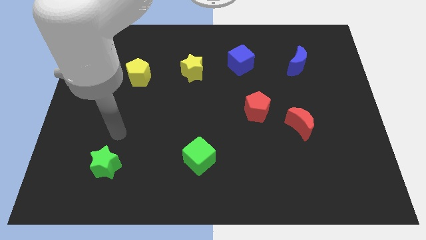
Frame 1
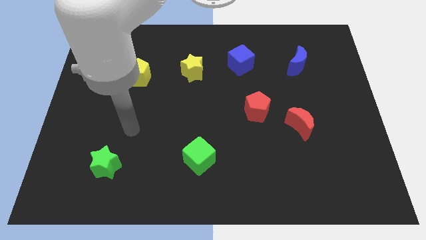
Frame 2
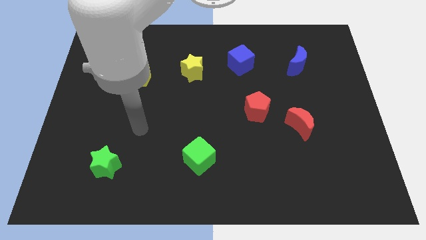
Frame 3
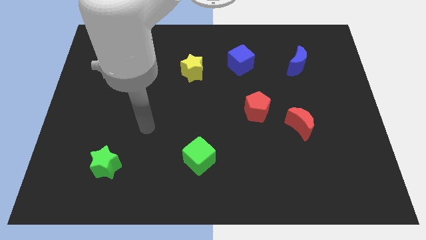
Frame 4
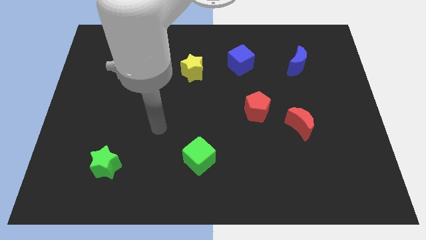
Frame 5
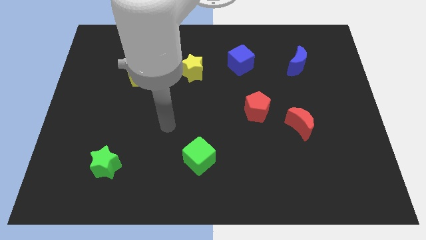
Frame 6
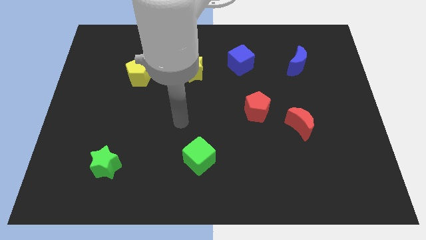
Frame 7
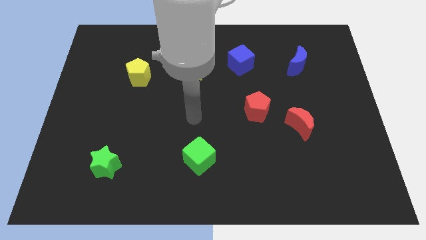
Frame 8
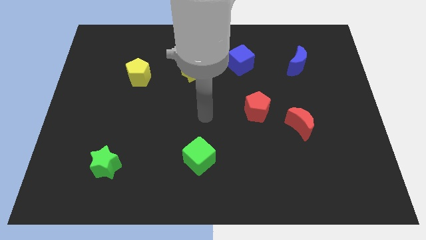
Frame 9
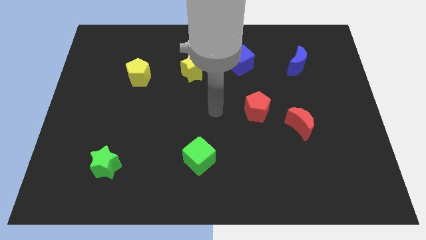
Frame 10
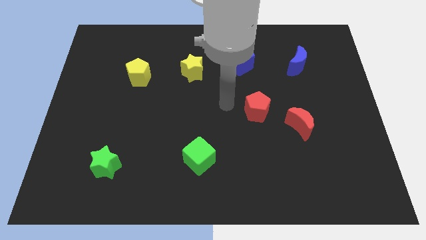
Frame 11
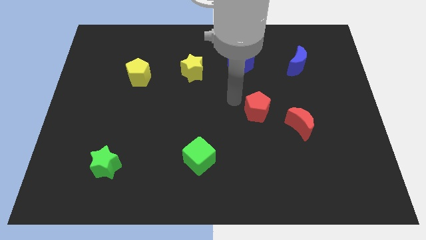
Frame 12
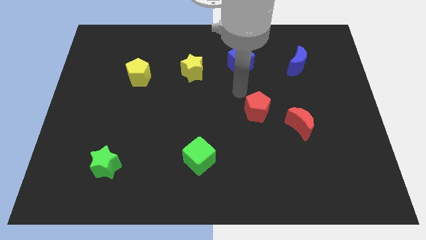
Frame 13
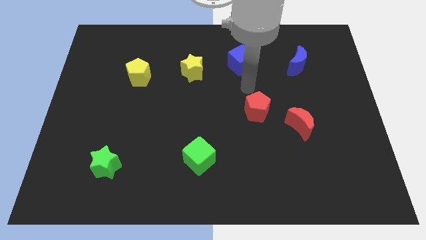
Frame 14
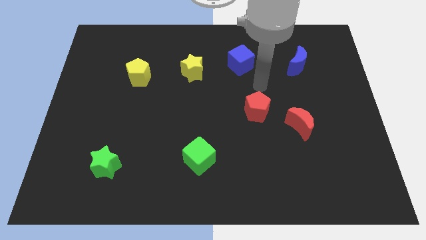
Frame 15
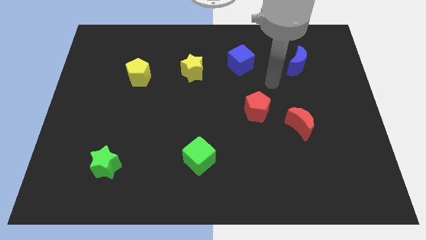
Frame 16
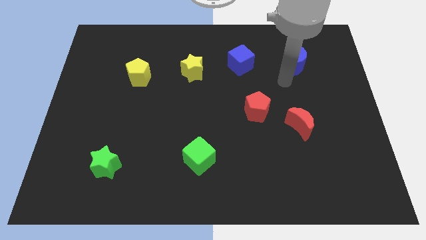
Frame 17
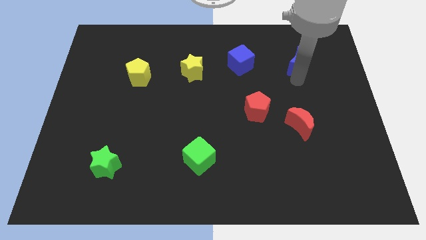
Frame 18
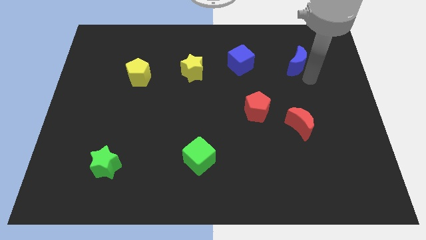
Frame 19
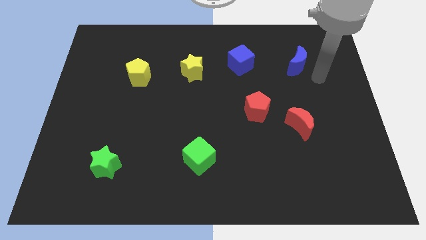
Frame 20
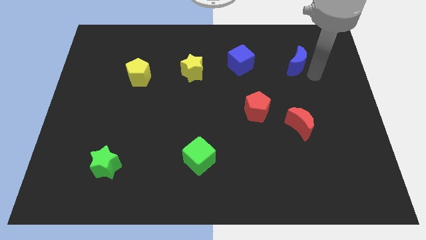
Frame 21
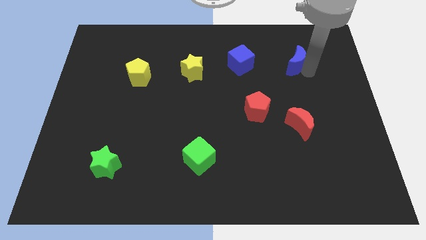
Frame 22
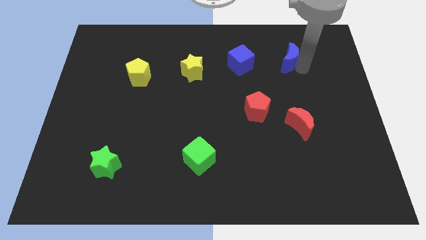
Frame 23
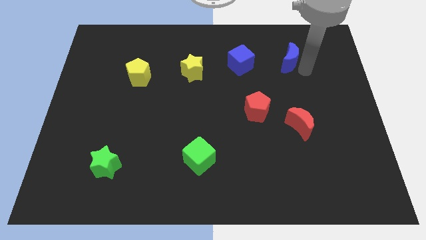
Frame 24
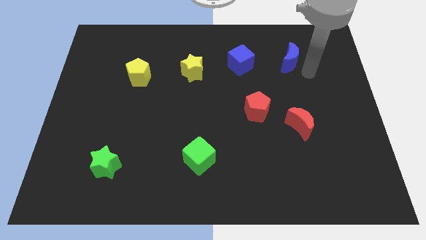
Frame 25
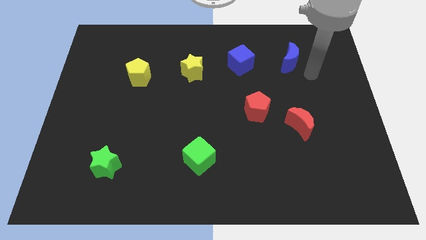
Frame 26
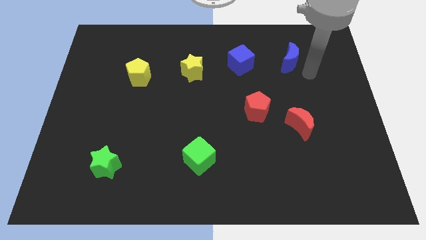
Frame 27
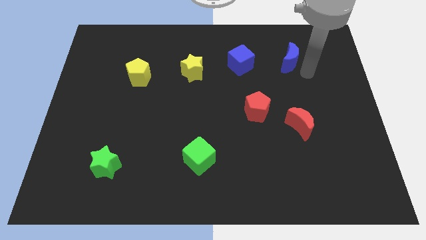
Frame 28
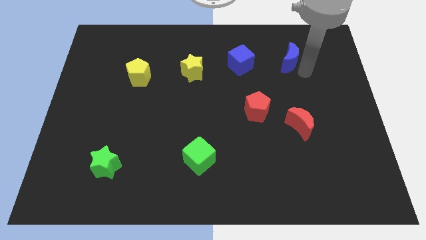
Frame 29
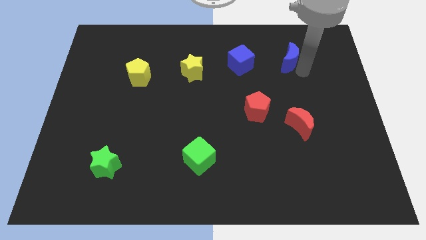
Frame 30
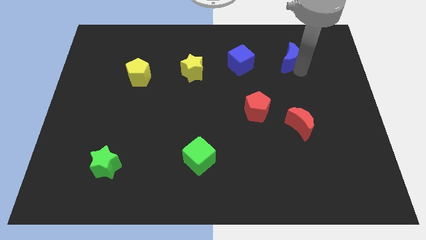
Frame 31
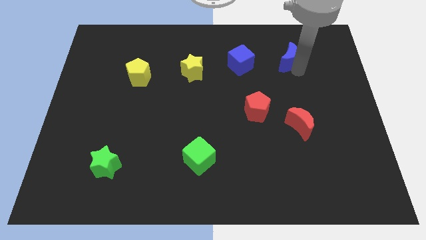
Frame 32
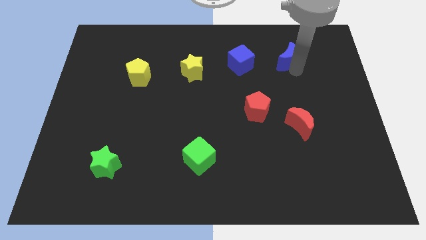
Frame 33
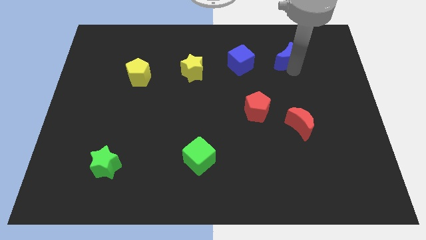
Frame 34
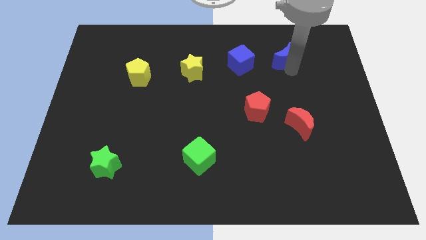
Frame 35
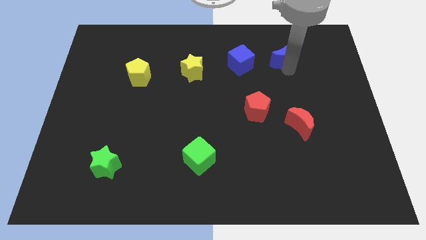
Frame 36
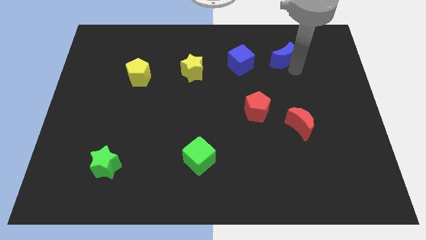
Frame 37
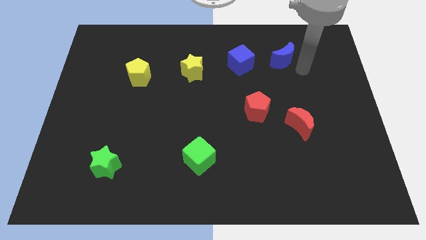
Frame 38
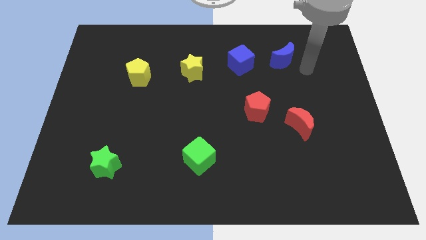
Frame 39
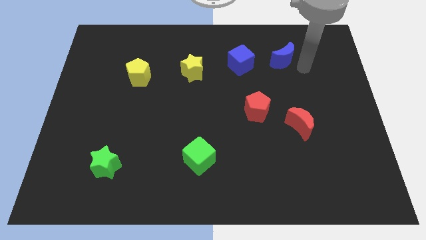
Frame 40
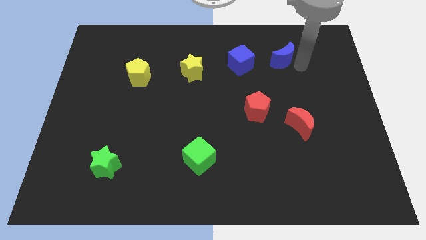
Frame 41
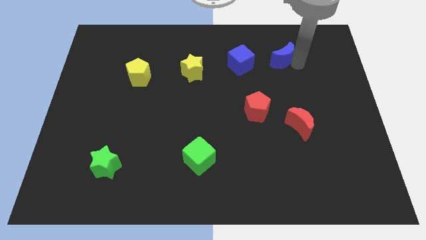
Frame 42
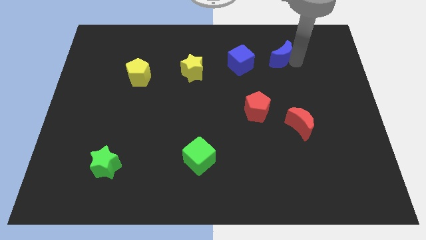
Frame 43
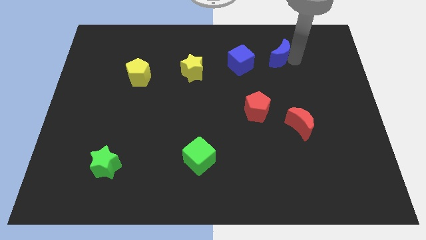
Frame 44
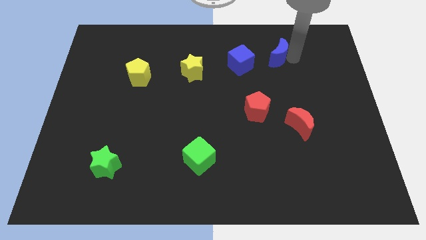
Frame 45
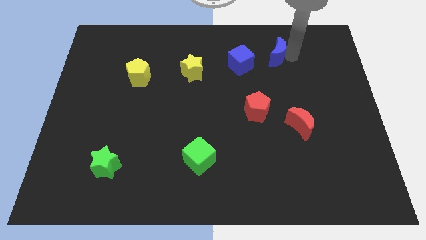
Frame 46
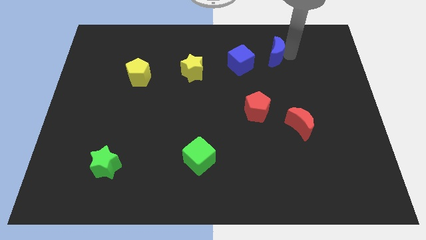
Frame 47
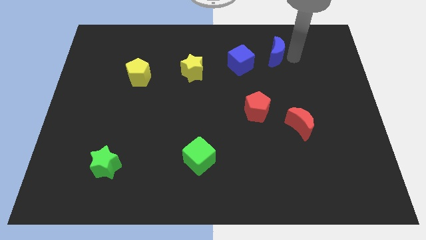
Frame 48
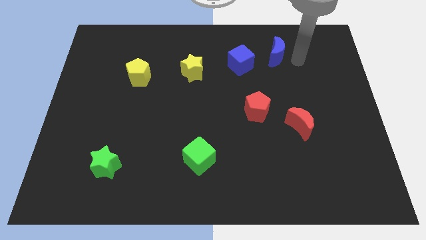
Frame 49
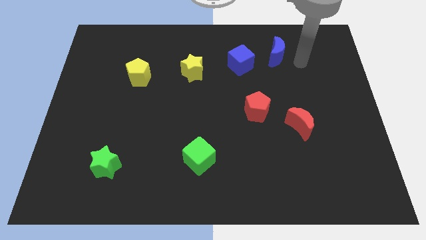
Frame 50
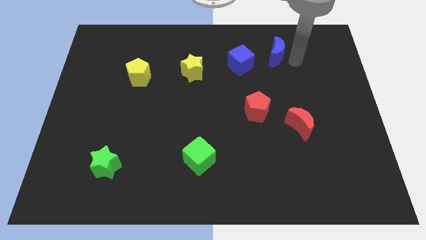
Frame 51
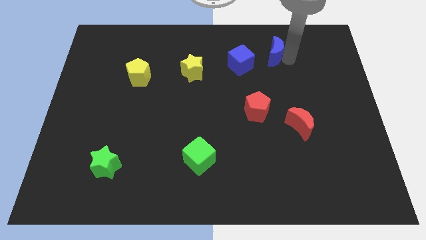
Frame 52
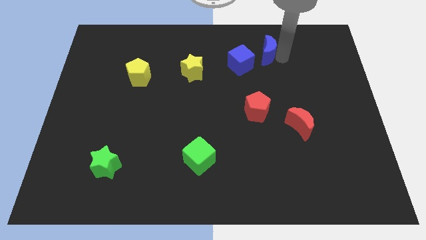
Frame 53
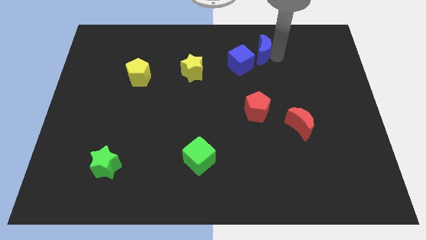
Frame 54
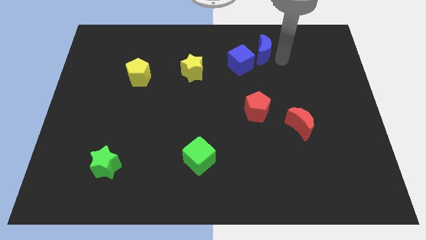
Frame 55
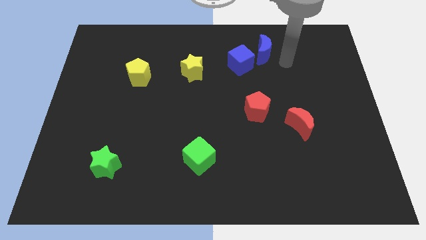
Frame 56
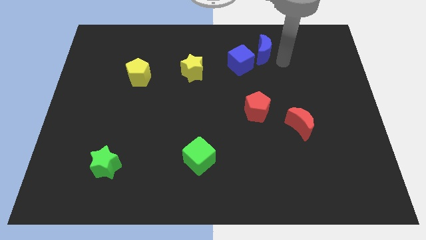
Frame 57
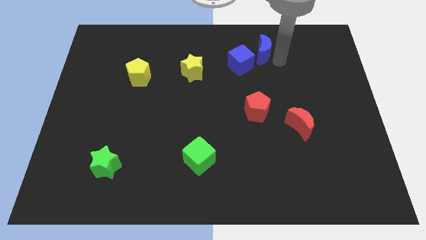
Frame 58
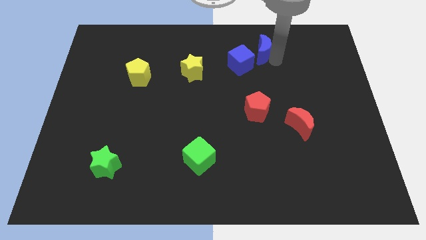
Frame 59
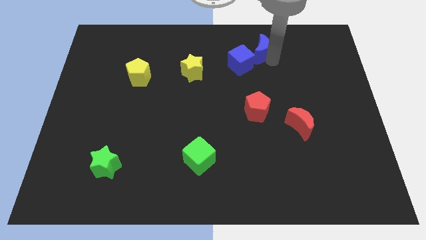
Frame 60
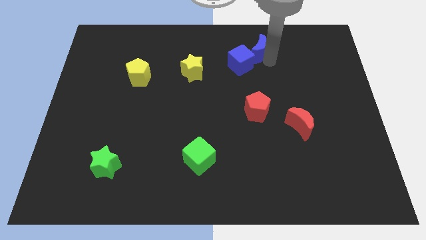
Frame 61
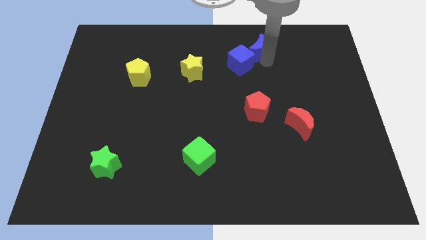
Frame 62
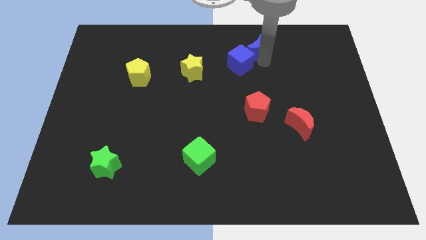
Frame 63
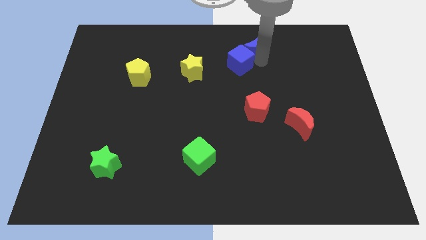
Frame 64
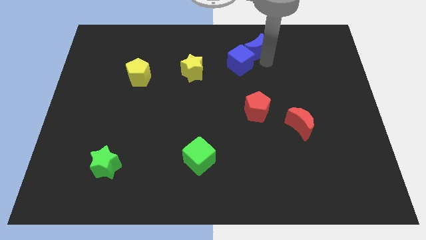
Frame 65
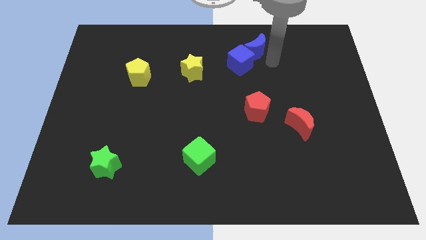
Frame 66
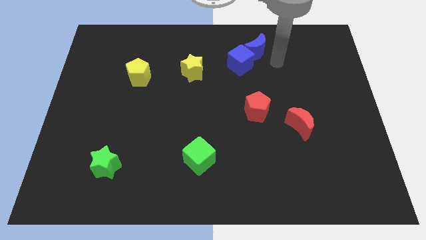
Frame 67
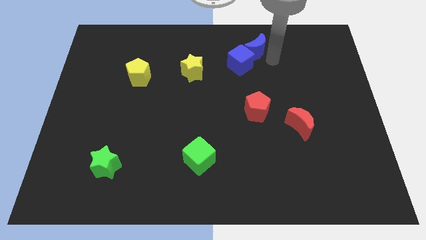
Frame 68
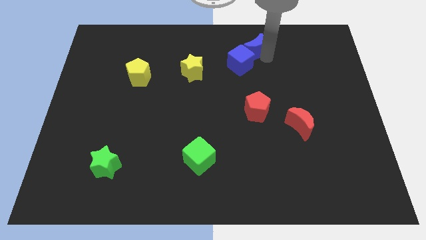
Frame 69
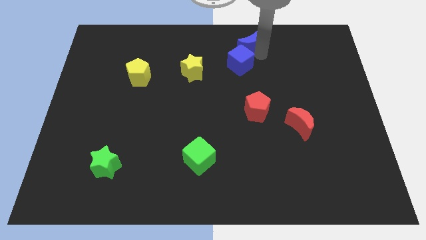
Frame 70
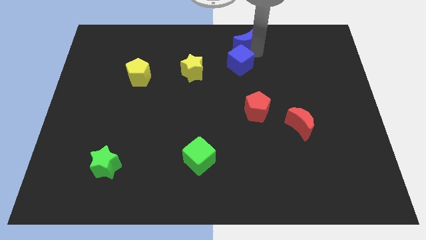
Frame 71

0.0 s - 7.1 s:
put the blue moon to the top
